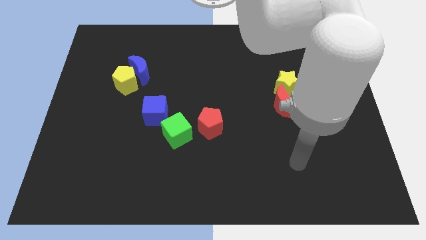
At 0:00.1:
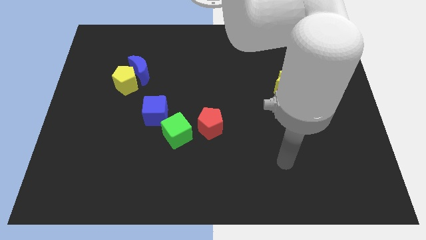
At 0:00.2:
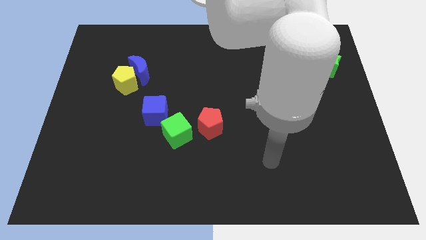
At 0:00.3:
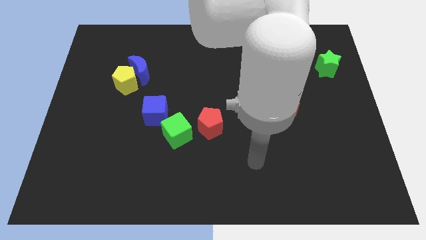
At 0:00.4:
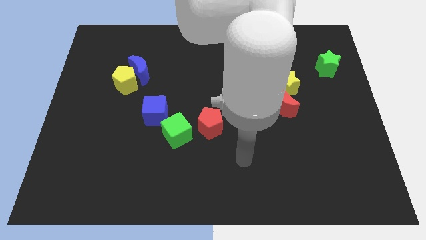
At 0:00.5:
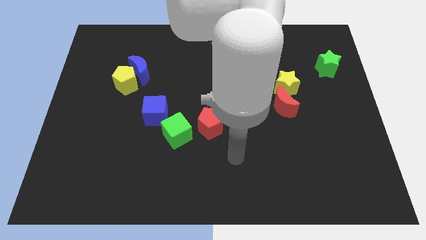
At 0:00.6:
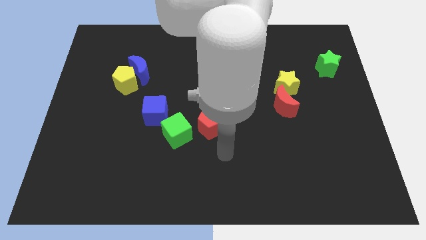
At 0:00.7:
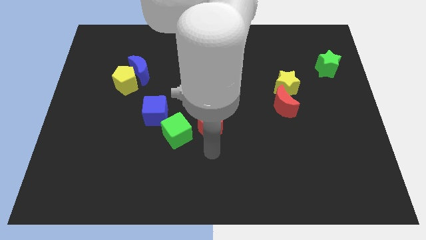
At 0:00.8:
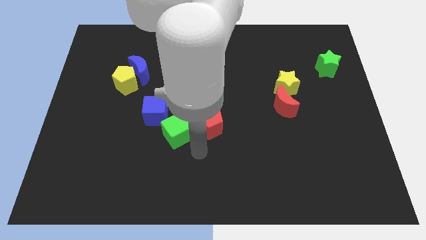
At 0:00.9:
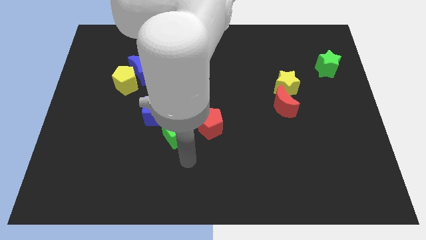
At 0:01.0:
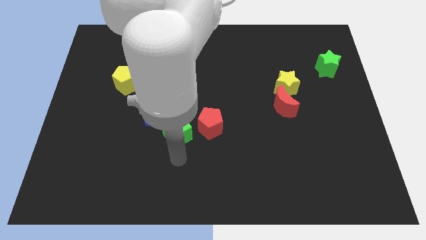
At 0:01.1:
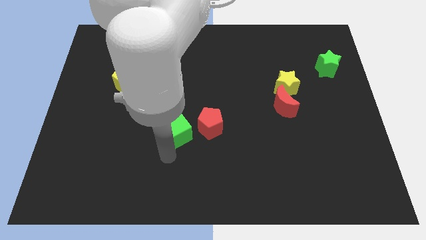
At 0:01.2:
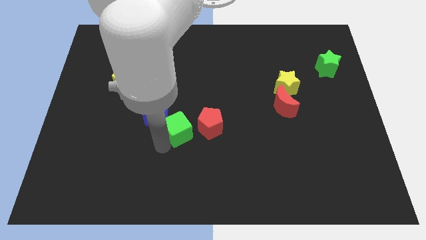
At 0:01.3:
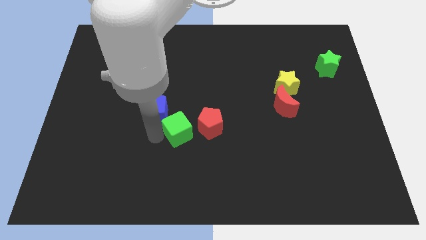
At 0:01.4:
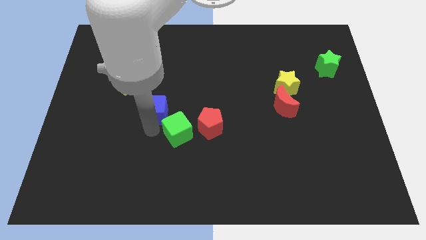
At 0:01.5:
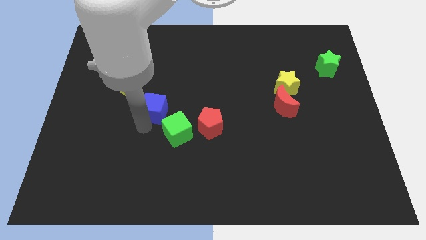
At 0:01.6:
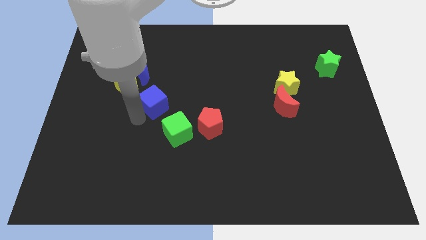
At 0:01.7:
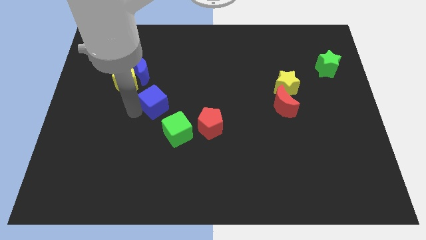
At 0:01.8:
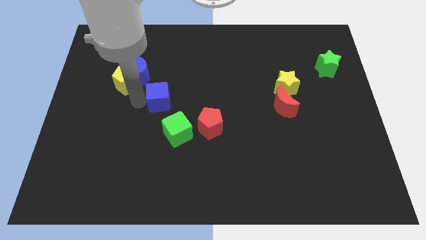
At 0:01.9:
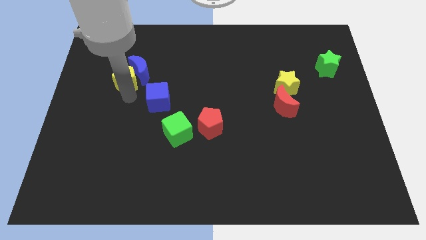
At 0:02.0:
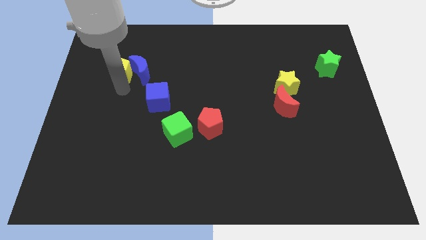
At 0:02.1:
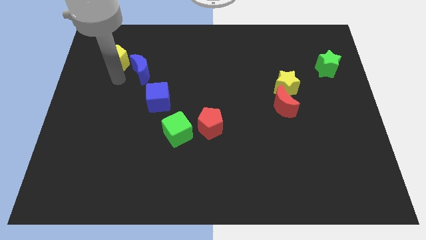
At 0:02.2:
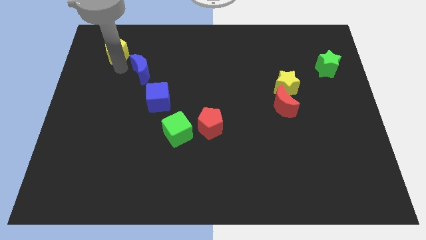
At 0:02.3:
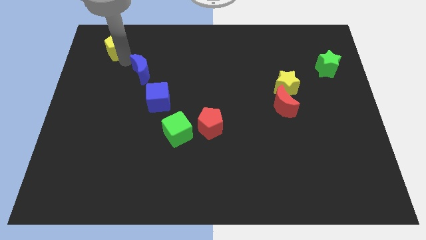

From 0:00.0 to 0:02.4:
separate the blue moon from the yellow pentagon

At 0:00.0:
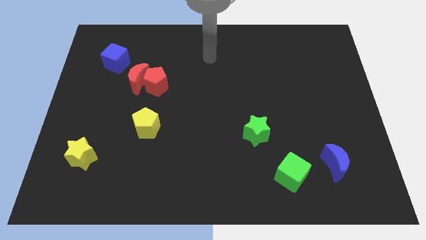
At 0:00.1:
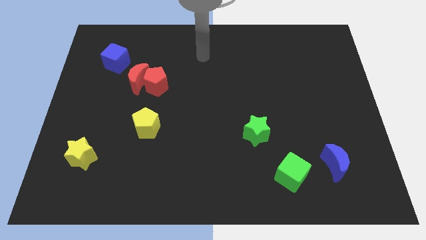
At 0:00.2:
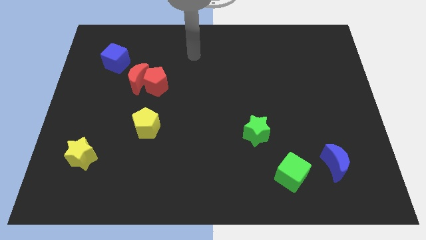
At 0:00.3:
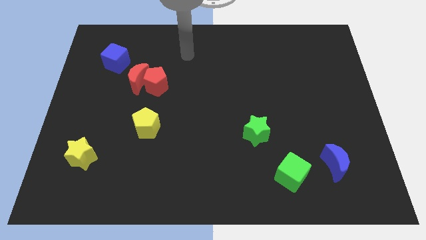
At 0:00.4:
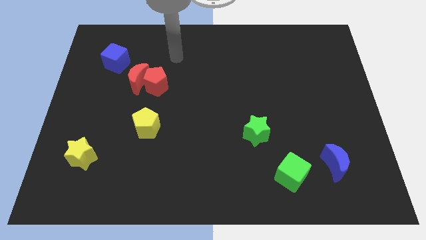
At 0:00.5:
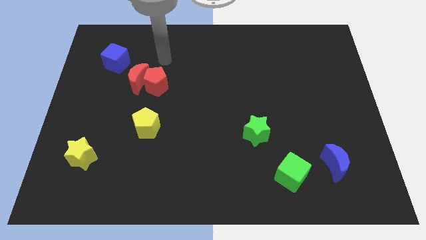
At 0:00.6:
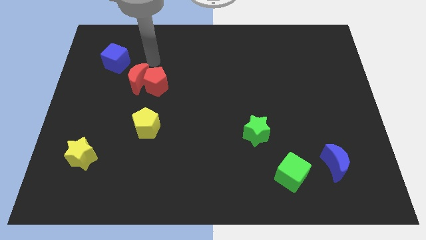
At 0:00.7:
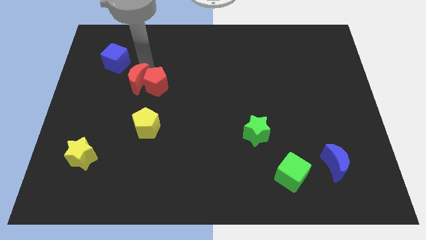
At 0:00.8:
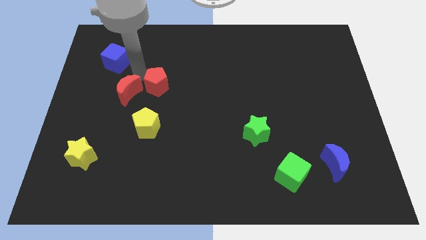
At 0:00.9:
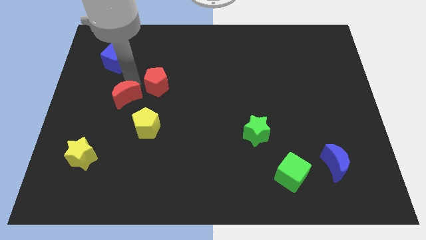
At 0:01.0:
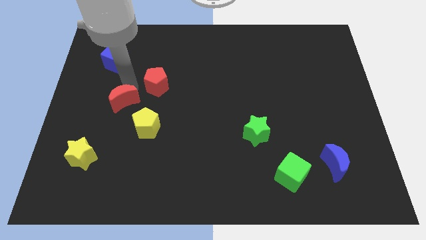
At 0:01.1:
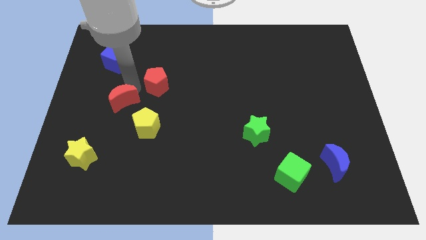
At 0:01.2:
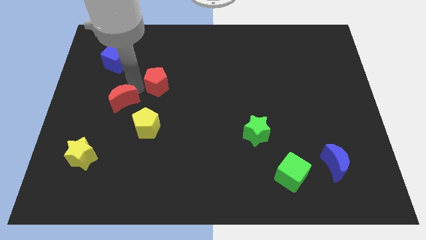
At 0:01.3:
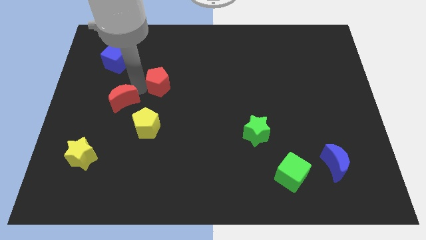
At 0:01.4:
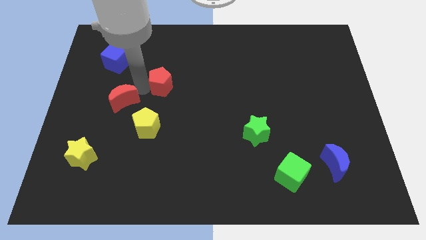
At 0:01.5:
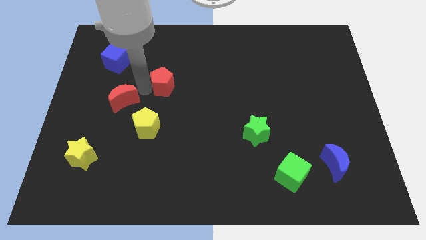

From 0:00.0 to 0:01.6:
pull the red pentagon apart from the red moon

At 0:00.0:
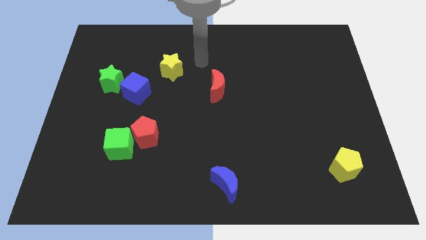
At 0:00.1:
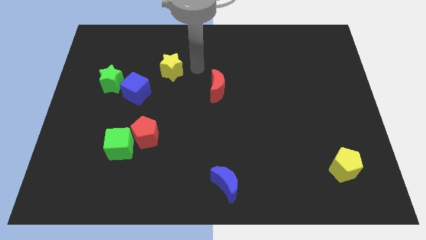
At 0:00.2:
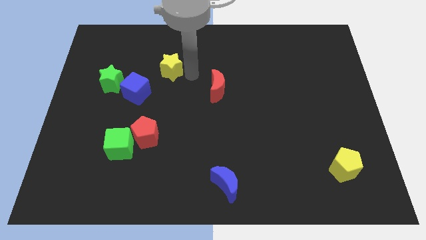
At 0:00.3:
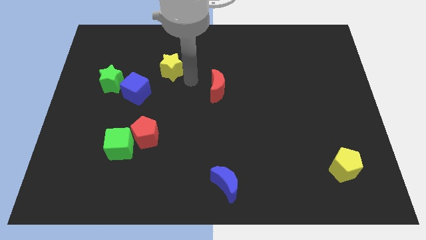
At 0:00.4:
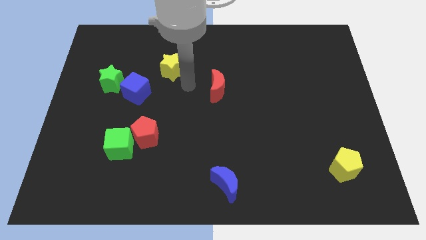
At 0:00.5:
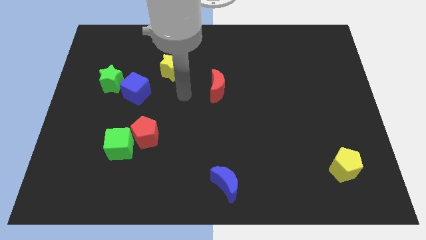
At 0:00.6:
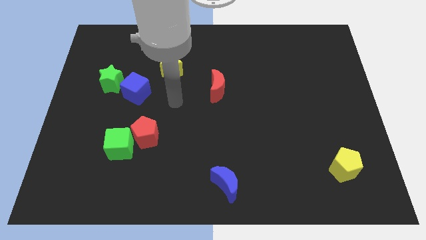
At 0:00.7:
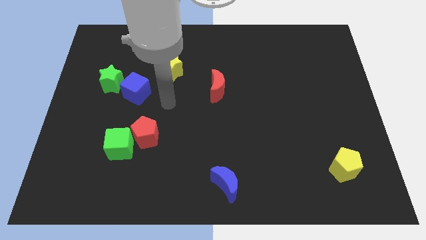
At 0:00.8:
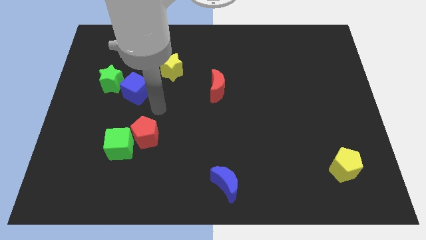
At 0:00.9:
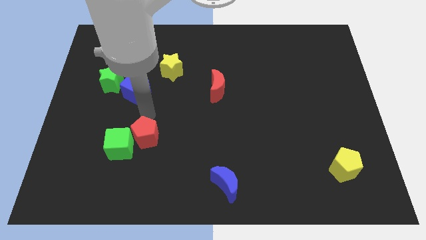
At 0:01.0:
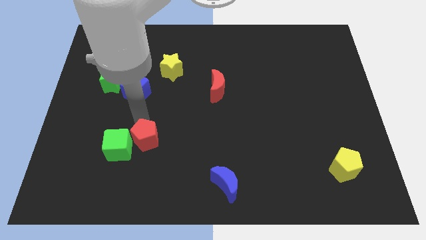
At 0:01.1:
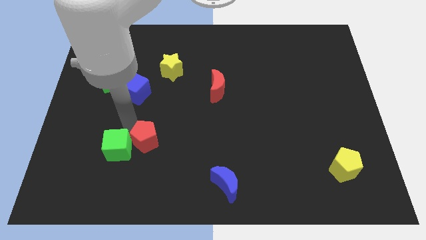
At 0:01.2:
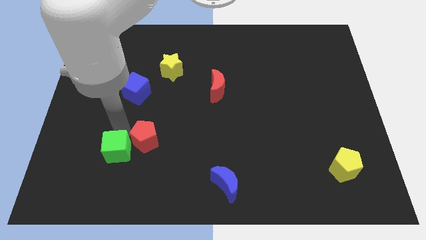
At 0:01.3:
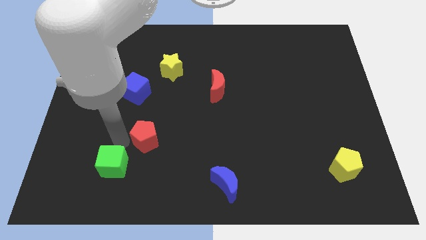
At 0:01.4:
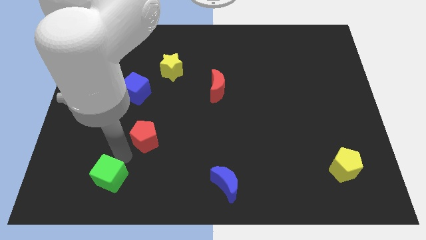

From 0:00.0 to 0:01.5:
move the red pentagon away from the green cube

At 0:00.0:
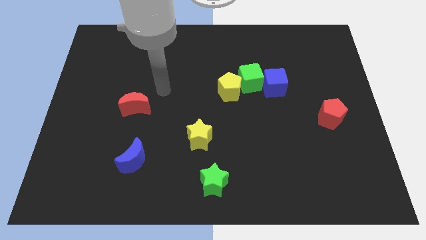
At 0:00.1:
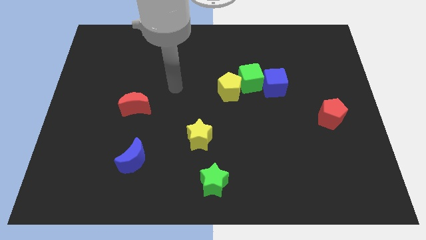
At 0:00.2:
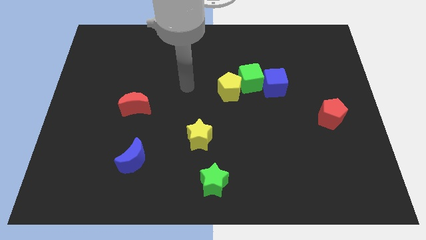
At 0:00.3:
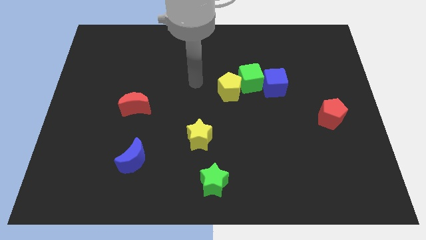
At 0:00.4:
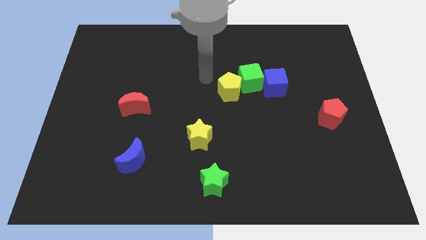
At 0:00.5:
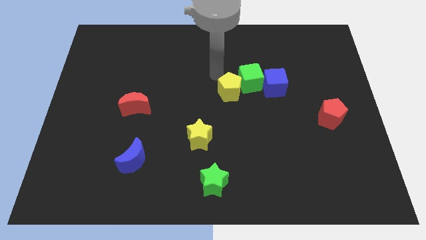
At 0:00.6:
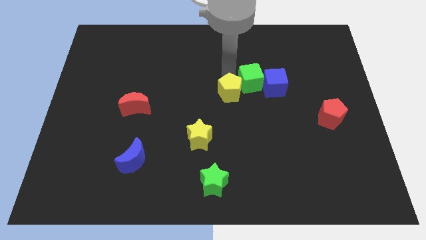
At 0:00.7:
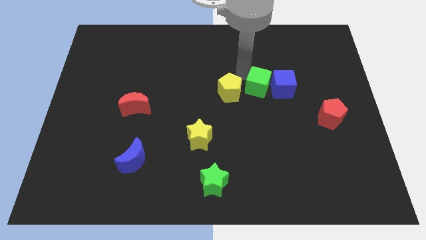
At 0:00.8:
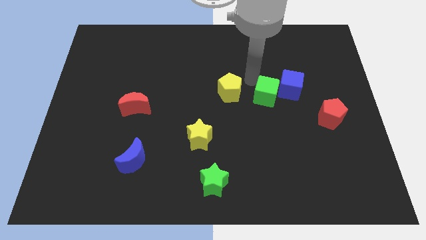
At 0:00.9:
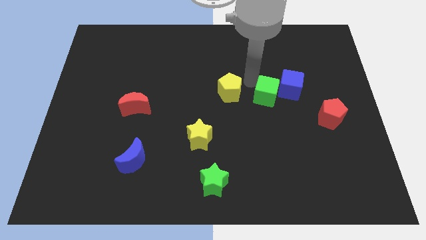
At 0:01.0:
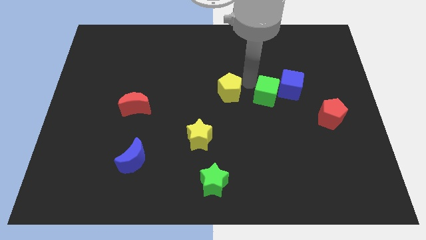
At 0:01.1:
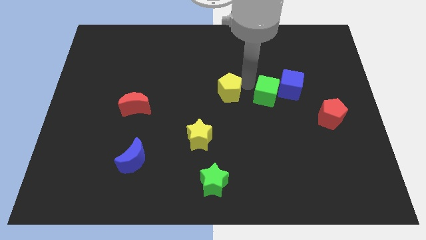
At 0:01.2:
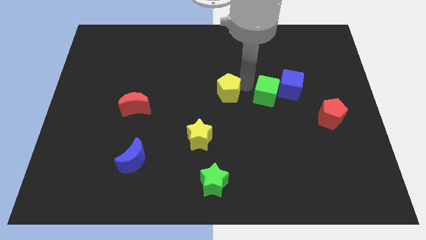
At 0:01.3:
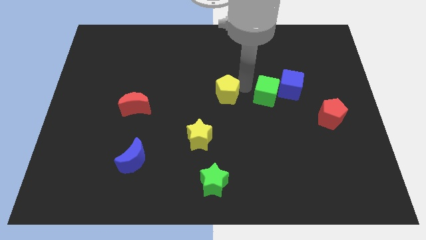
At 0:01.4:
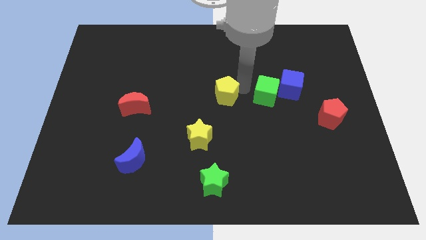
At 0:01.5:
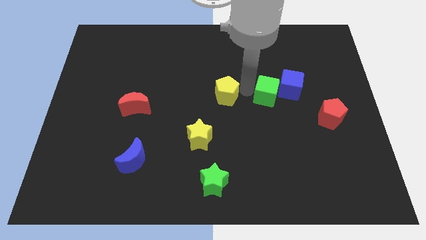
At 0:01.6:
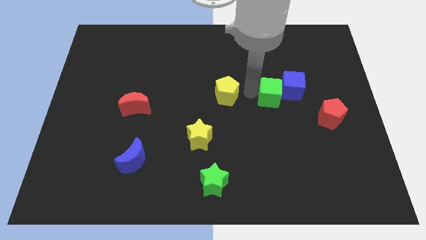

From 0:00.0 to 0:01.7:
move the yellow pentagon away from the green cube

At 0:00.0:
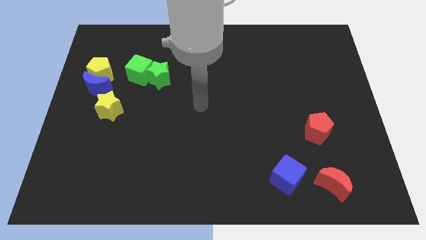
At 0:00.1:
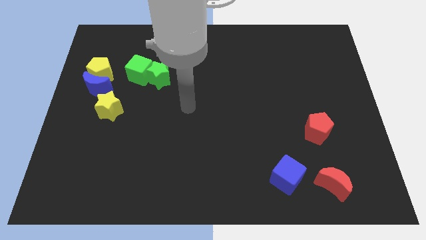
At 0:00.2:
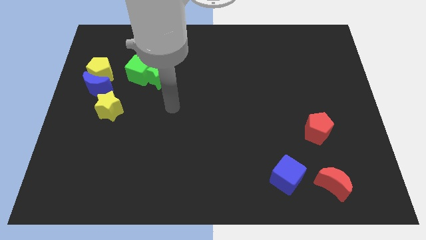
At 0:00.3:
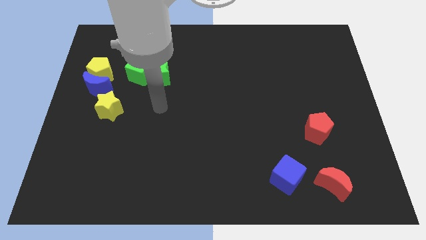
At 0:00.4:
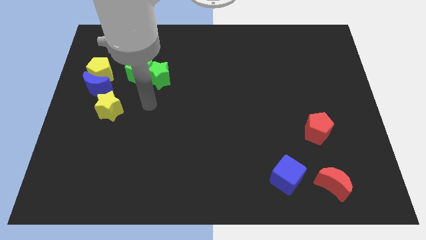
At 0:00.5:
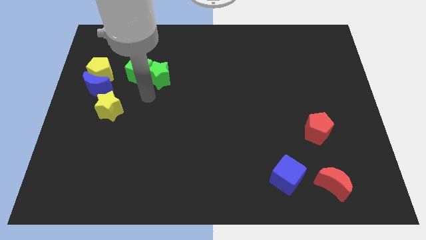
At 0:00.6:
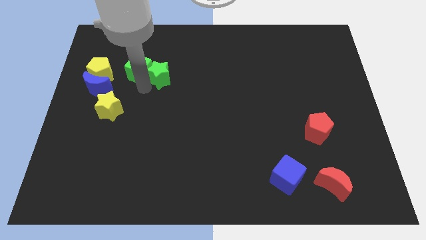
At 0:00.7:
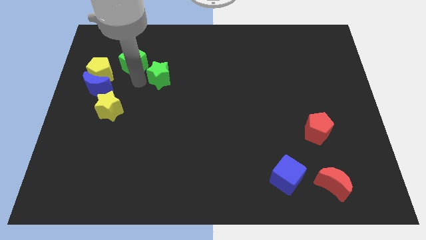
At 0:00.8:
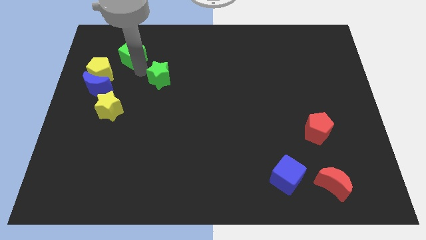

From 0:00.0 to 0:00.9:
separate the green star from the green cube

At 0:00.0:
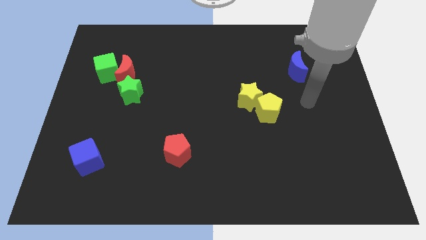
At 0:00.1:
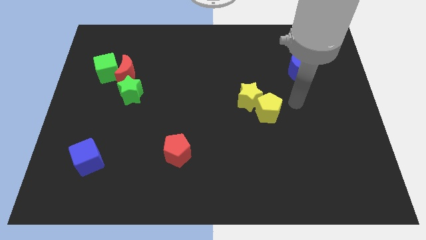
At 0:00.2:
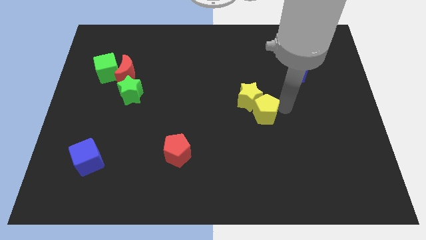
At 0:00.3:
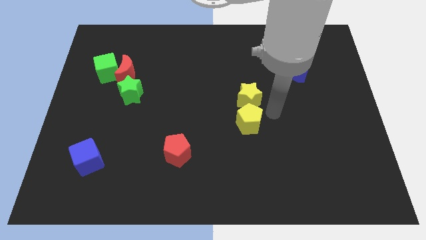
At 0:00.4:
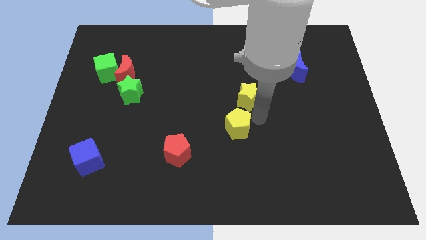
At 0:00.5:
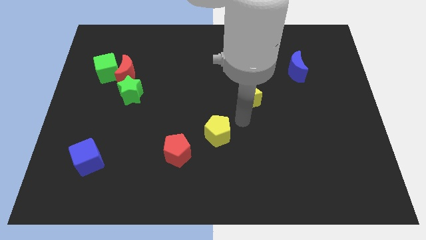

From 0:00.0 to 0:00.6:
pull the yellow star apart from the yellow pentagon

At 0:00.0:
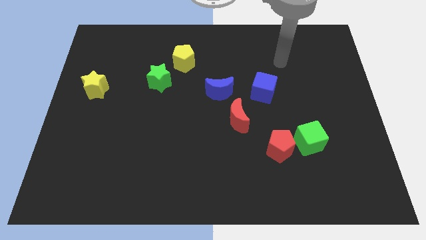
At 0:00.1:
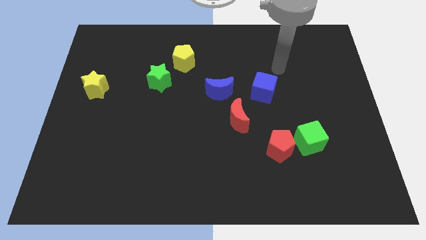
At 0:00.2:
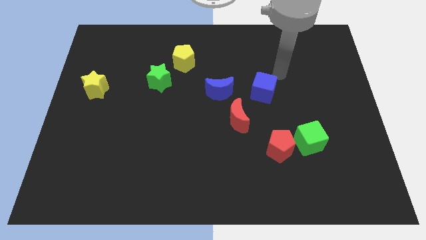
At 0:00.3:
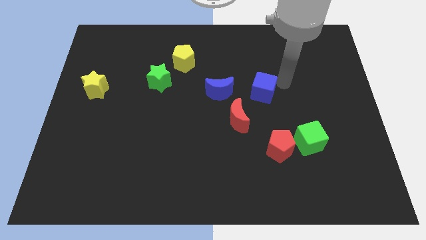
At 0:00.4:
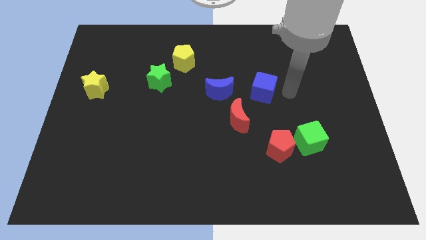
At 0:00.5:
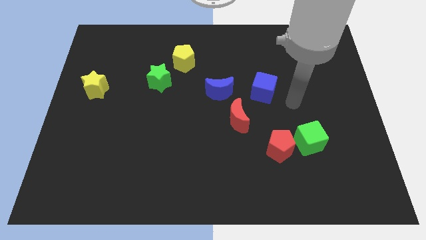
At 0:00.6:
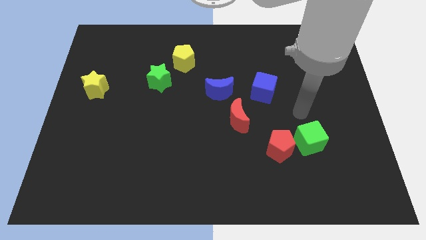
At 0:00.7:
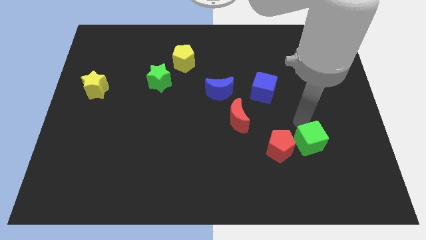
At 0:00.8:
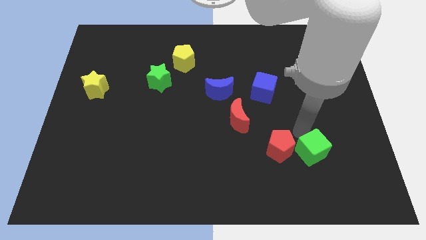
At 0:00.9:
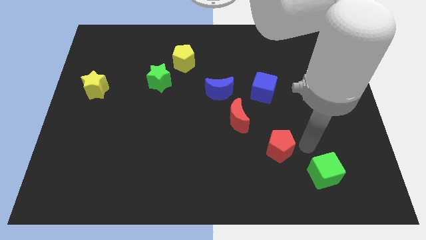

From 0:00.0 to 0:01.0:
separate the red pentagon from the green cube
